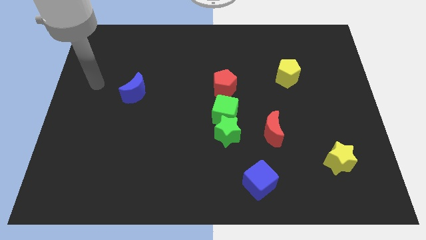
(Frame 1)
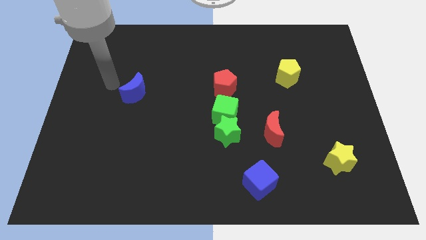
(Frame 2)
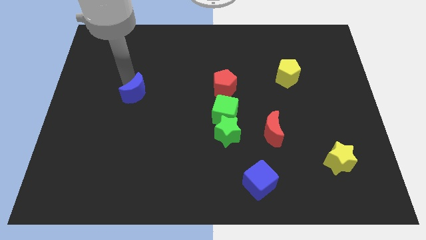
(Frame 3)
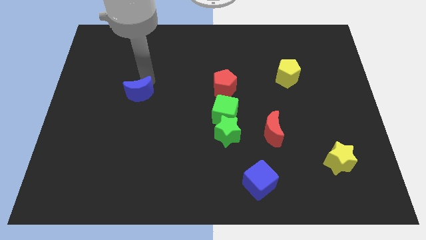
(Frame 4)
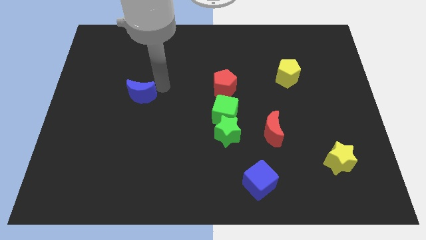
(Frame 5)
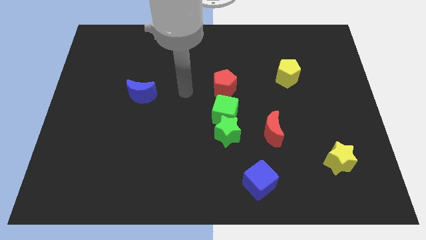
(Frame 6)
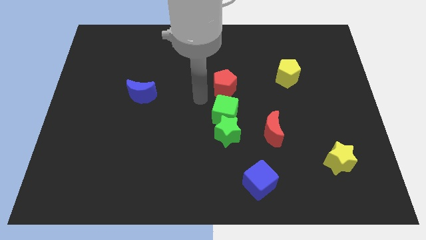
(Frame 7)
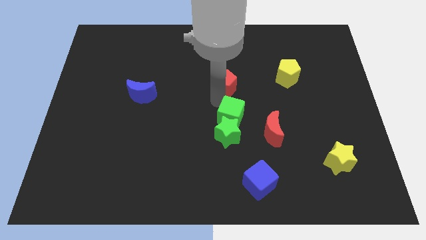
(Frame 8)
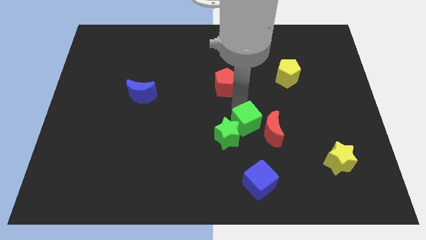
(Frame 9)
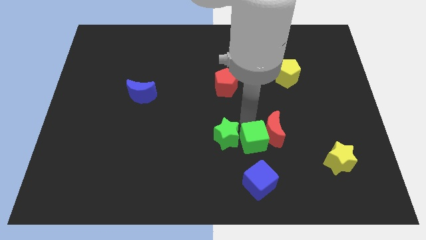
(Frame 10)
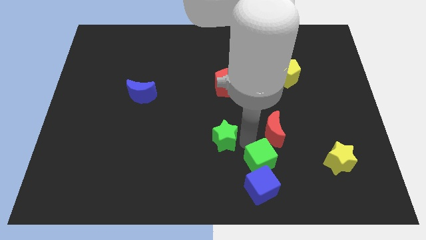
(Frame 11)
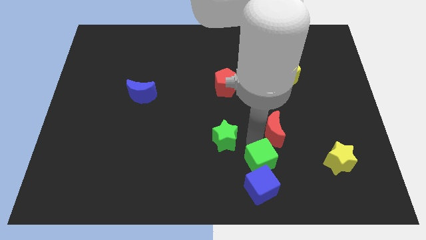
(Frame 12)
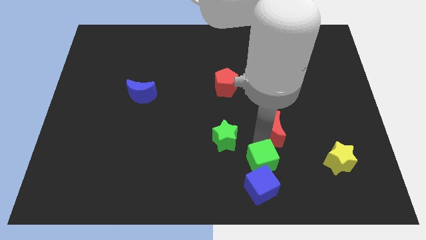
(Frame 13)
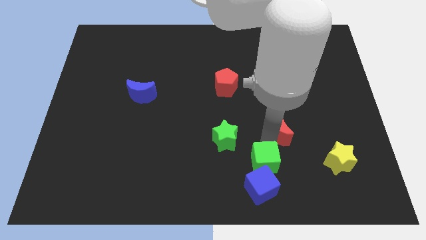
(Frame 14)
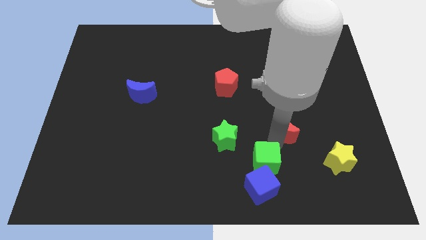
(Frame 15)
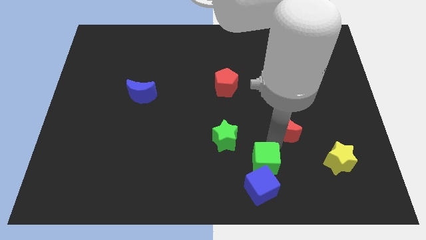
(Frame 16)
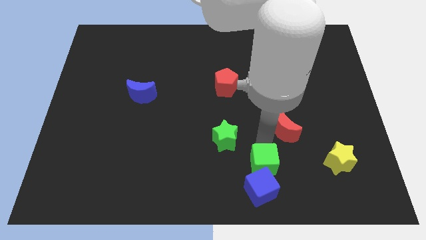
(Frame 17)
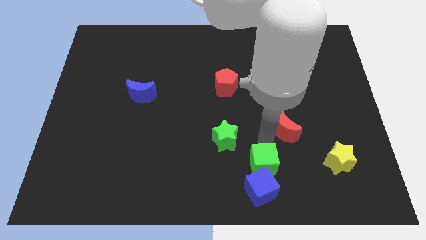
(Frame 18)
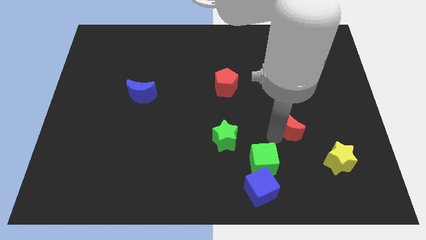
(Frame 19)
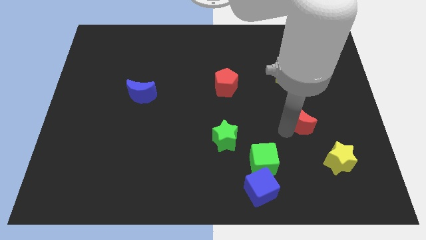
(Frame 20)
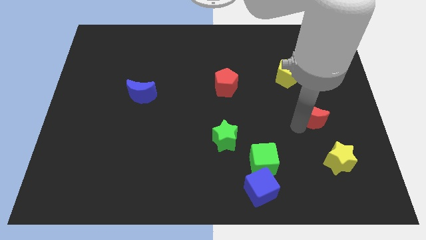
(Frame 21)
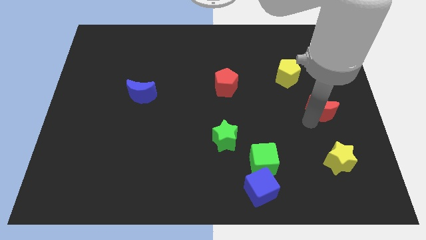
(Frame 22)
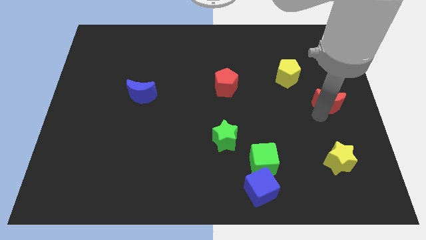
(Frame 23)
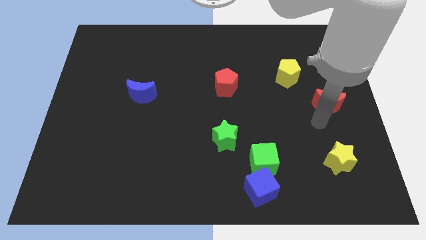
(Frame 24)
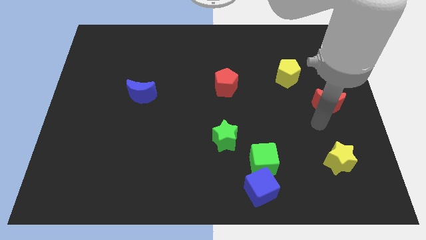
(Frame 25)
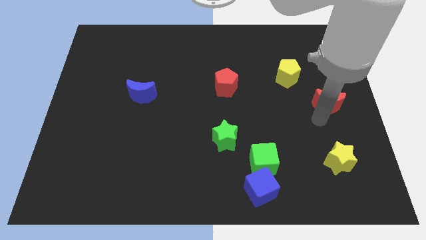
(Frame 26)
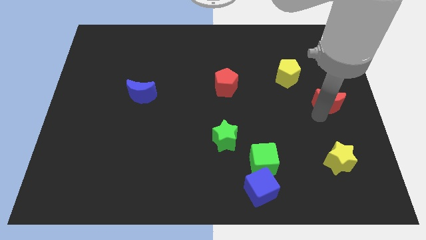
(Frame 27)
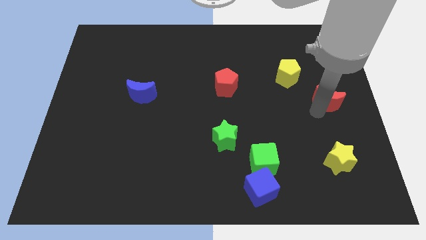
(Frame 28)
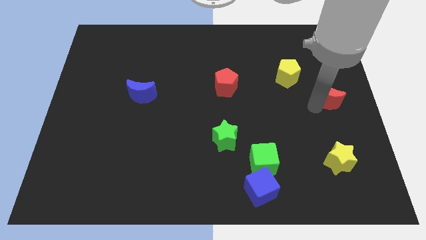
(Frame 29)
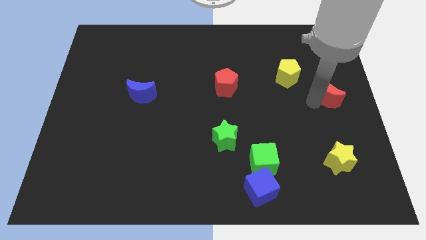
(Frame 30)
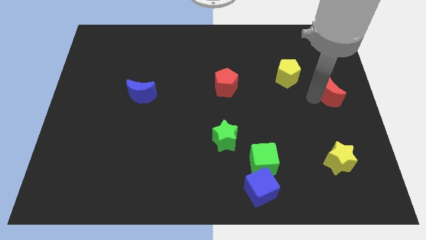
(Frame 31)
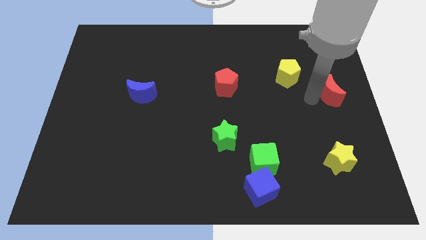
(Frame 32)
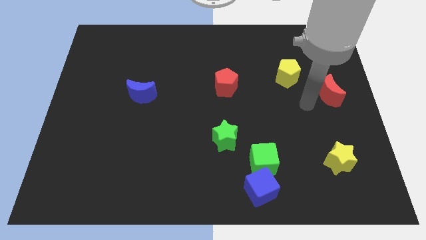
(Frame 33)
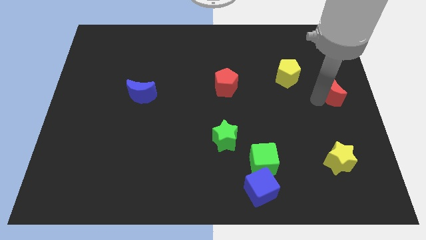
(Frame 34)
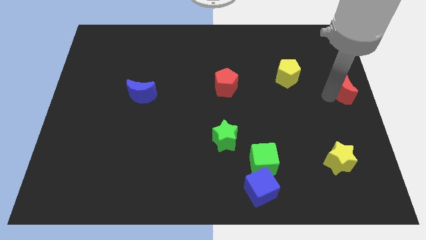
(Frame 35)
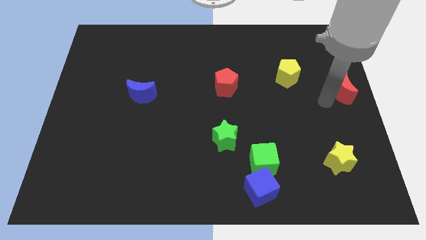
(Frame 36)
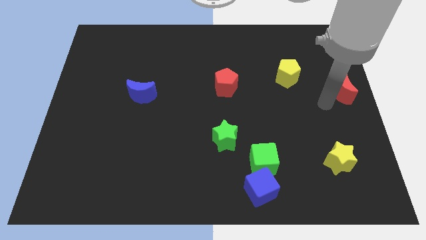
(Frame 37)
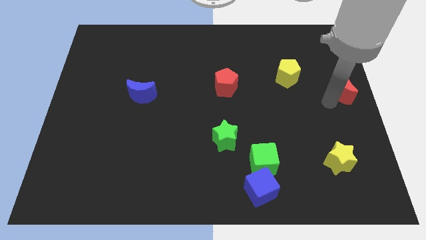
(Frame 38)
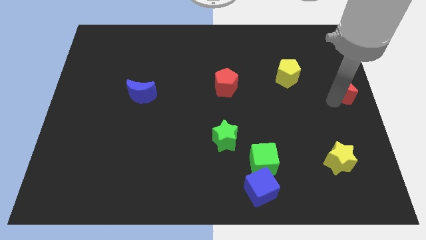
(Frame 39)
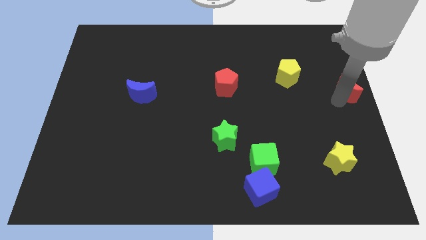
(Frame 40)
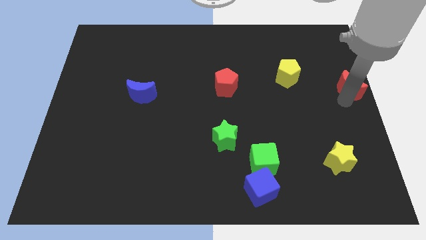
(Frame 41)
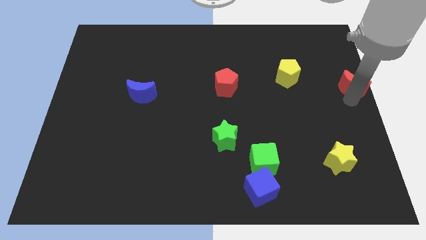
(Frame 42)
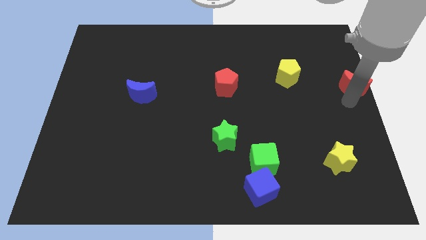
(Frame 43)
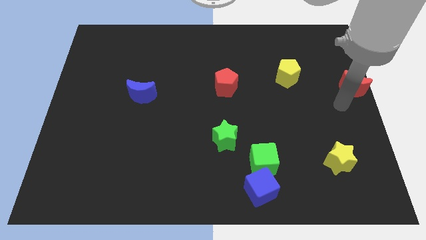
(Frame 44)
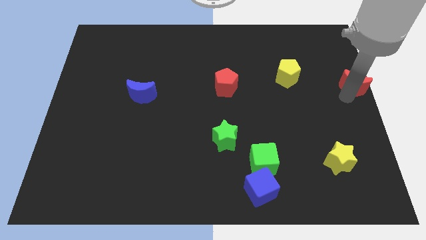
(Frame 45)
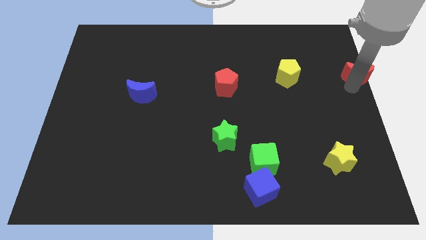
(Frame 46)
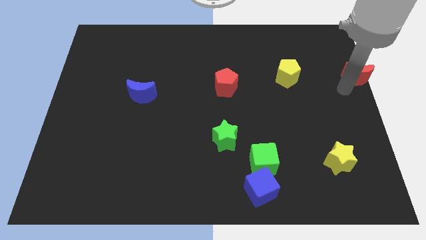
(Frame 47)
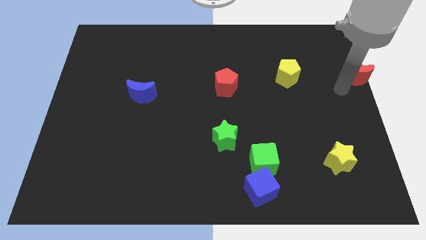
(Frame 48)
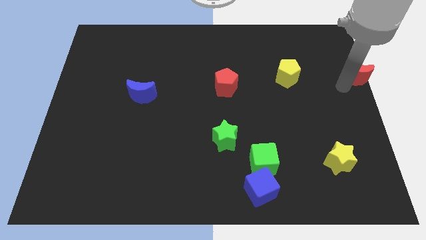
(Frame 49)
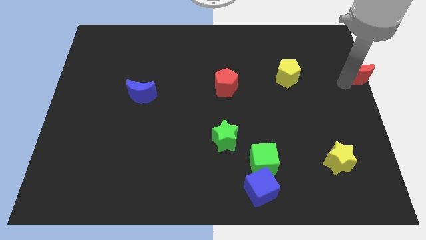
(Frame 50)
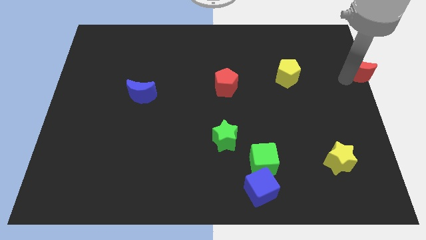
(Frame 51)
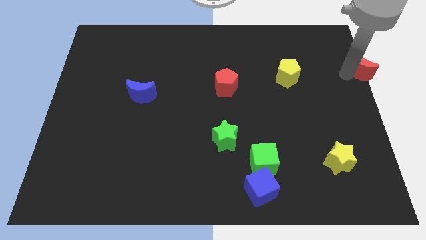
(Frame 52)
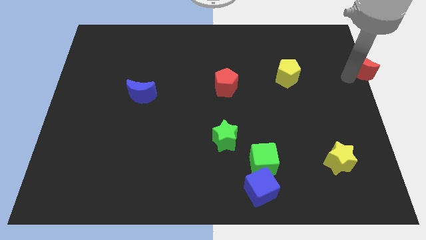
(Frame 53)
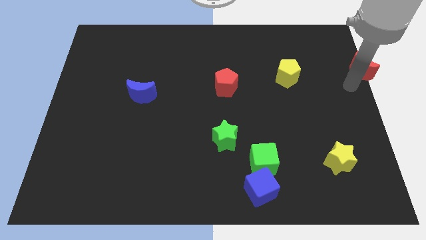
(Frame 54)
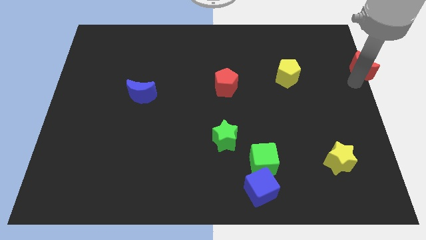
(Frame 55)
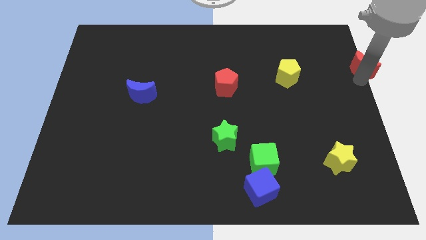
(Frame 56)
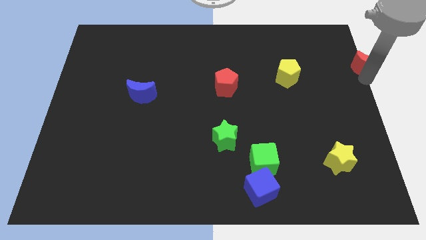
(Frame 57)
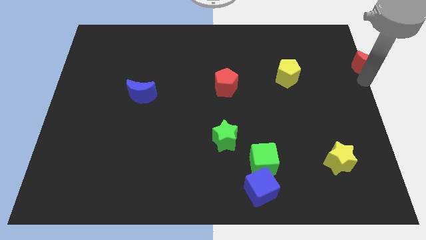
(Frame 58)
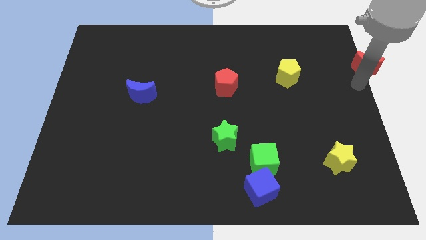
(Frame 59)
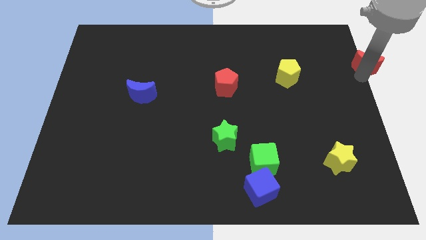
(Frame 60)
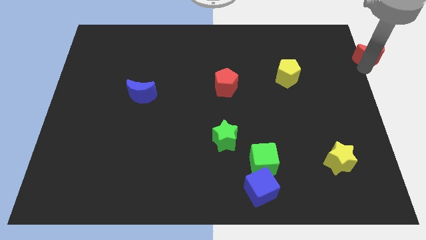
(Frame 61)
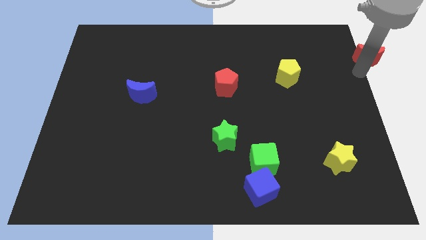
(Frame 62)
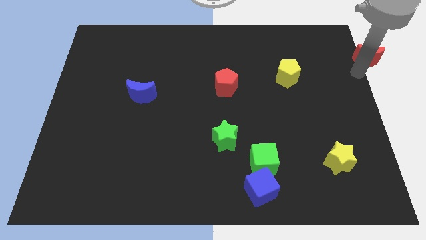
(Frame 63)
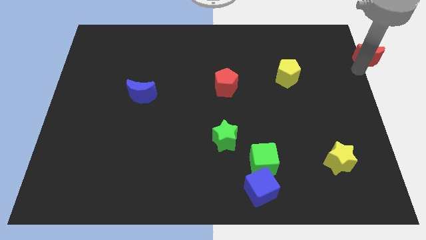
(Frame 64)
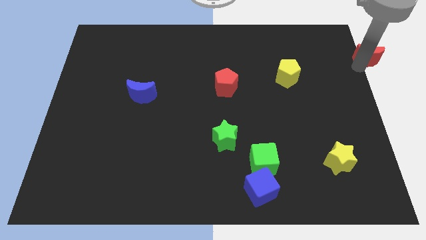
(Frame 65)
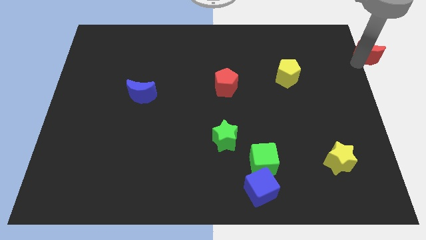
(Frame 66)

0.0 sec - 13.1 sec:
slide the red moon to the top right

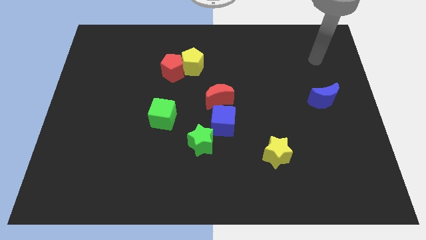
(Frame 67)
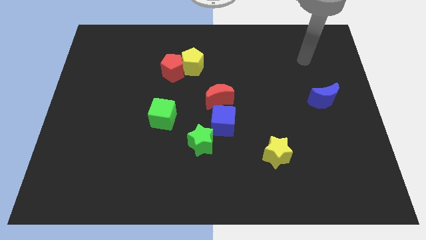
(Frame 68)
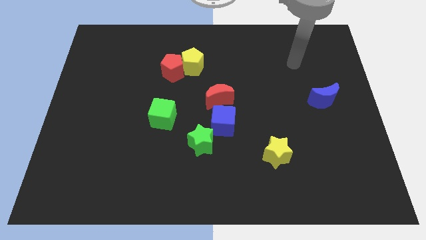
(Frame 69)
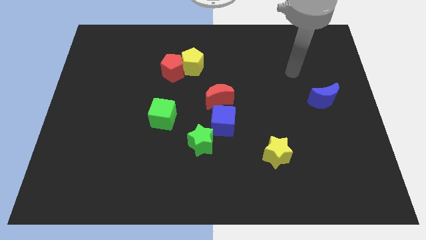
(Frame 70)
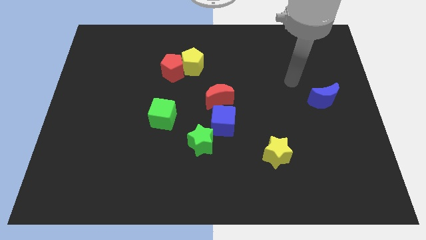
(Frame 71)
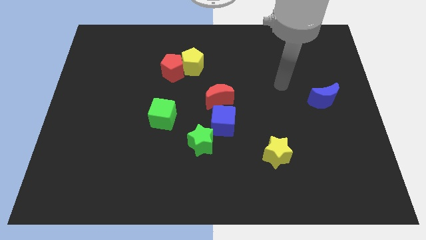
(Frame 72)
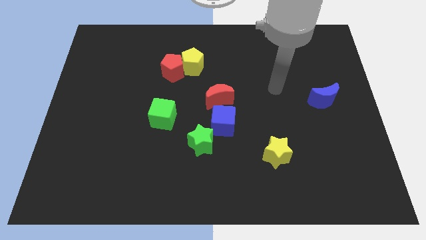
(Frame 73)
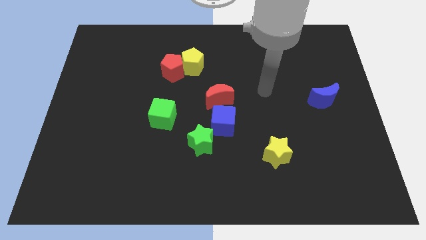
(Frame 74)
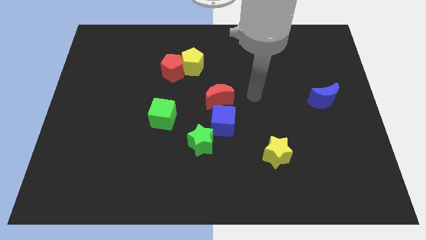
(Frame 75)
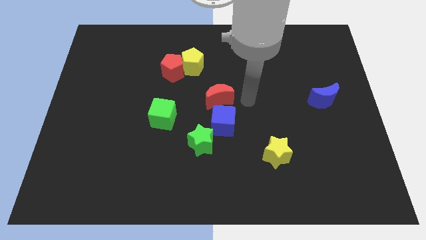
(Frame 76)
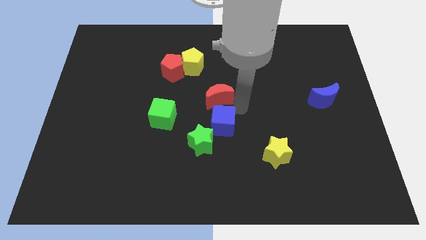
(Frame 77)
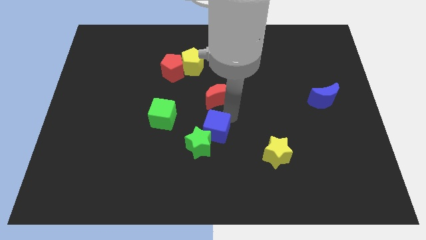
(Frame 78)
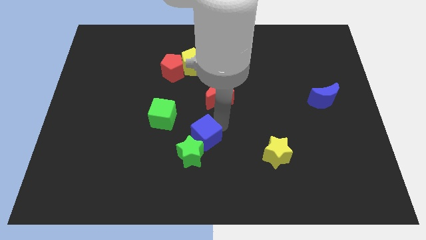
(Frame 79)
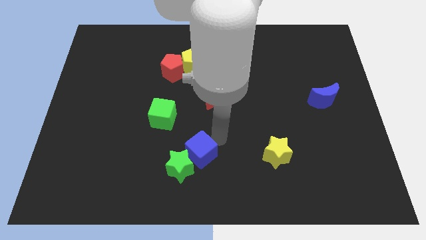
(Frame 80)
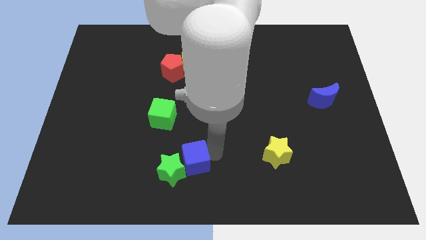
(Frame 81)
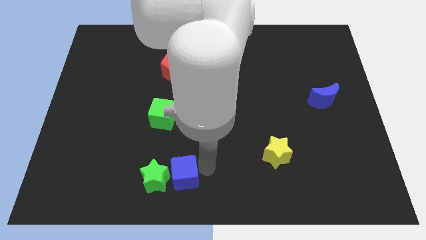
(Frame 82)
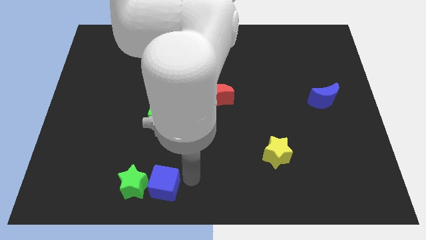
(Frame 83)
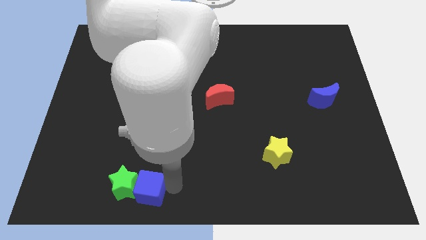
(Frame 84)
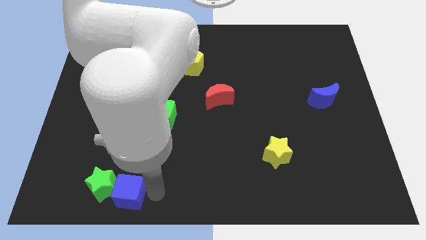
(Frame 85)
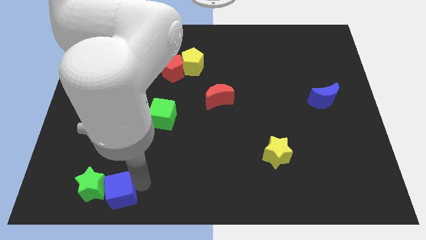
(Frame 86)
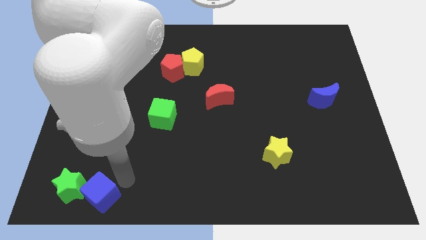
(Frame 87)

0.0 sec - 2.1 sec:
move the green star to the bottom left corner
